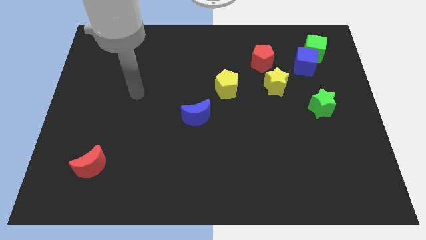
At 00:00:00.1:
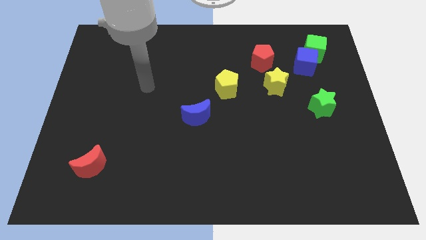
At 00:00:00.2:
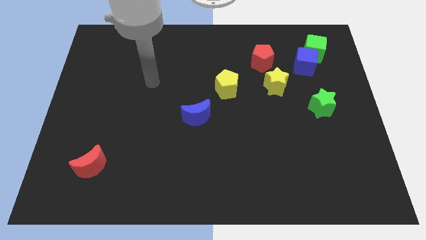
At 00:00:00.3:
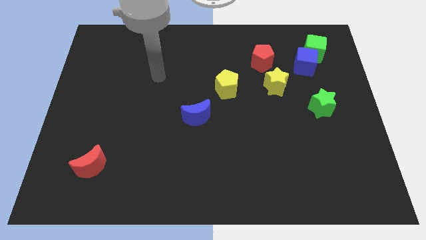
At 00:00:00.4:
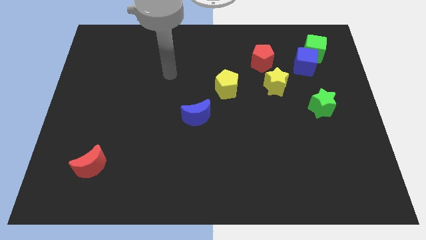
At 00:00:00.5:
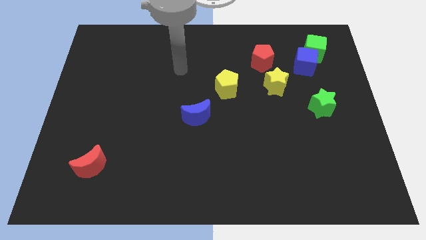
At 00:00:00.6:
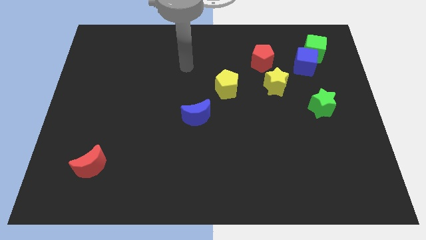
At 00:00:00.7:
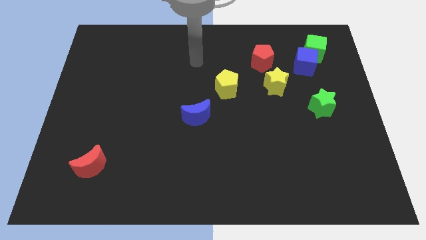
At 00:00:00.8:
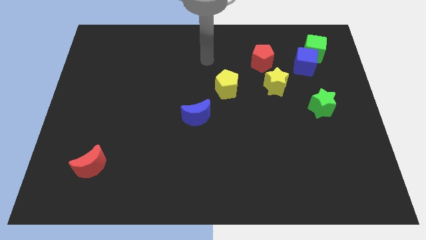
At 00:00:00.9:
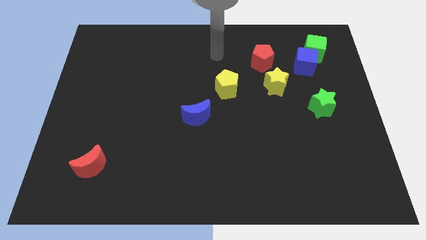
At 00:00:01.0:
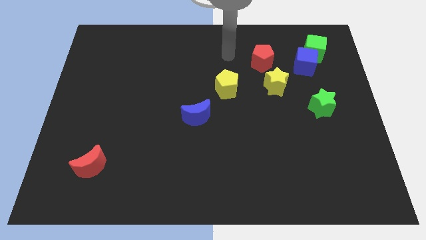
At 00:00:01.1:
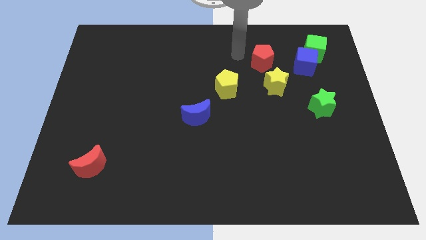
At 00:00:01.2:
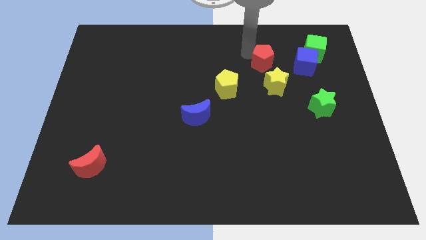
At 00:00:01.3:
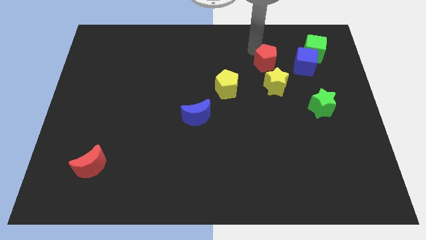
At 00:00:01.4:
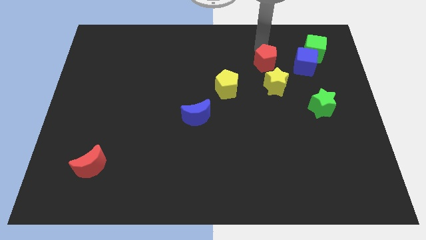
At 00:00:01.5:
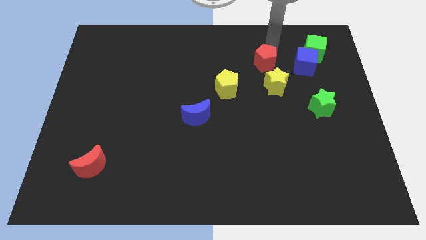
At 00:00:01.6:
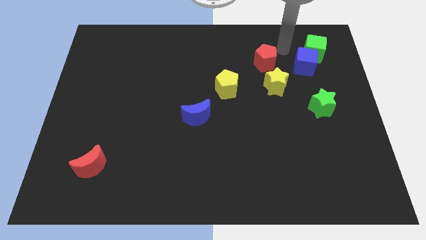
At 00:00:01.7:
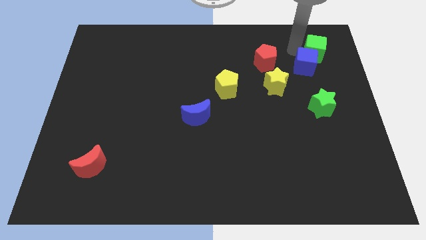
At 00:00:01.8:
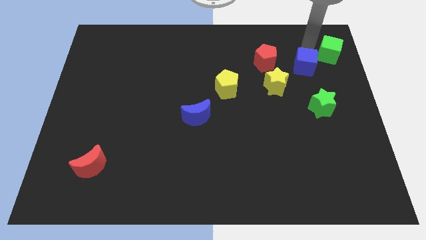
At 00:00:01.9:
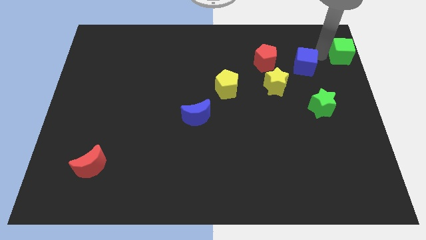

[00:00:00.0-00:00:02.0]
pull the blue cube apart from the green cube

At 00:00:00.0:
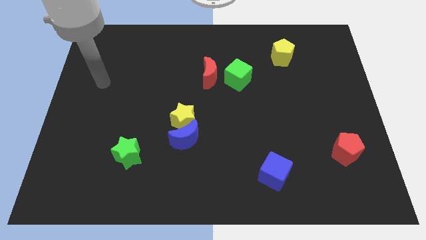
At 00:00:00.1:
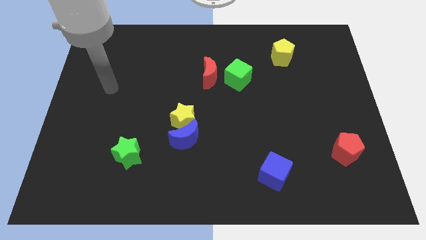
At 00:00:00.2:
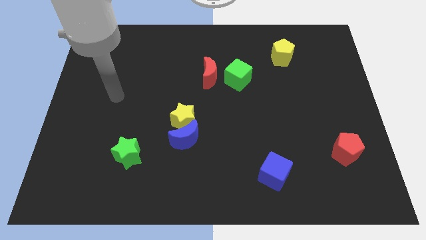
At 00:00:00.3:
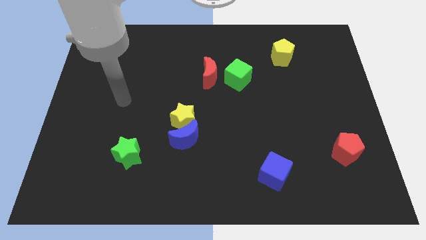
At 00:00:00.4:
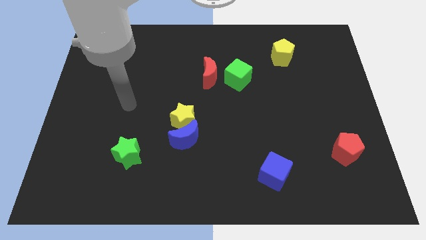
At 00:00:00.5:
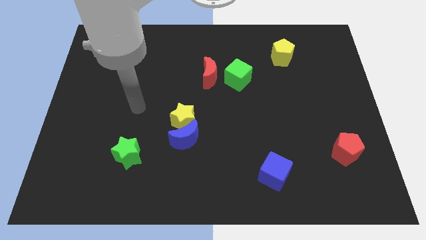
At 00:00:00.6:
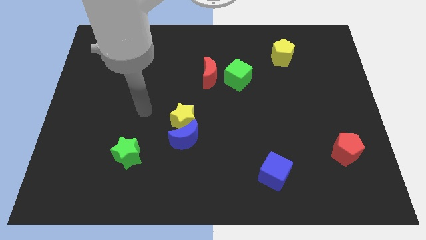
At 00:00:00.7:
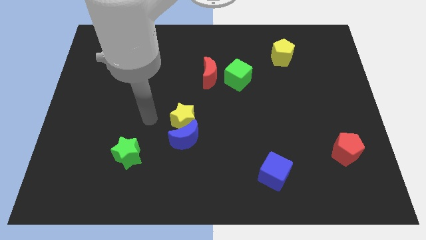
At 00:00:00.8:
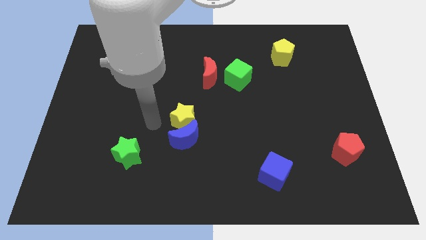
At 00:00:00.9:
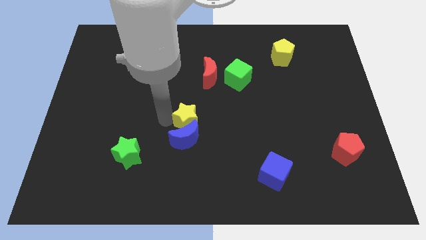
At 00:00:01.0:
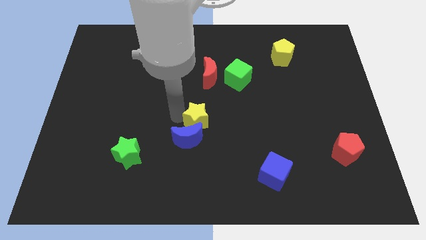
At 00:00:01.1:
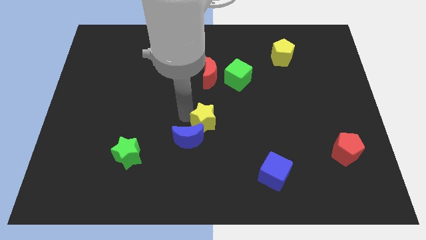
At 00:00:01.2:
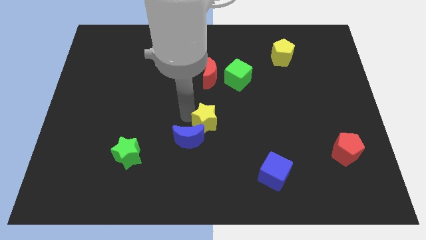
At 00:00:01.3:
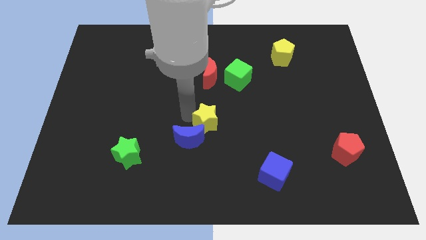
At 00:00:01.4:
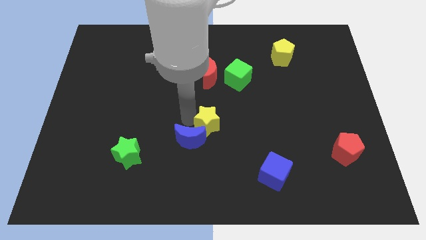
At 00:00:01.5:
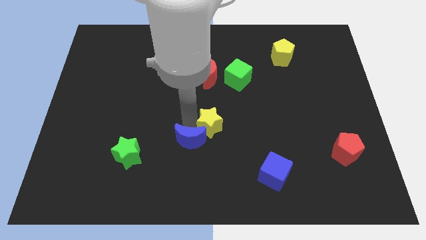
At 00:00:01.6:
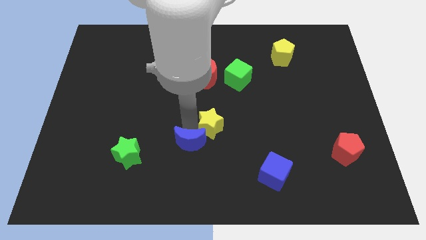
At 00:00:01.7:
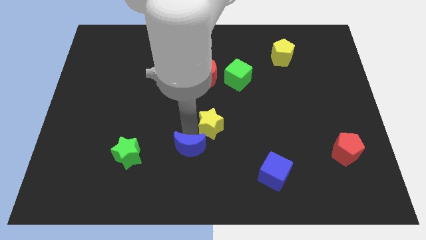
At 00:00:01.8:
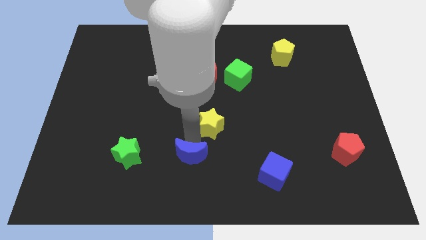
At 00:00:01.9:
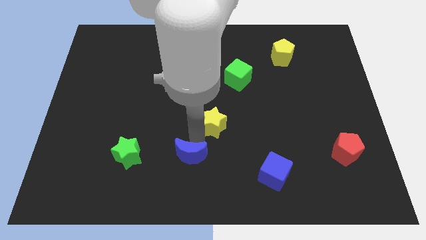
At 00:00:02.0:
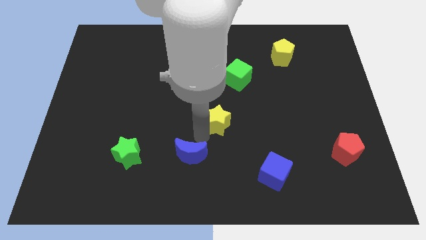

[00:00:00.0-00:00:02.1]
pull the blue moon apart from the yellow star

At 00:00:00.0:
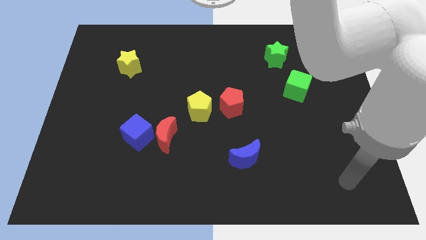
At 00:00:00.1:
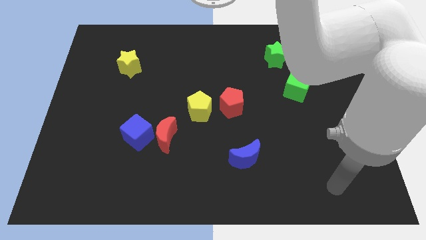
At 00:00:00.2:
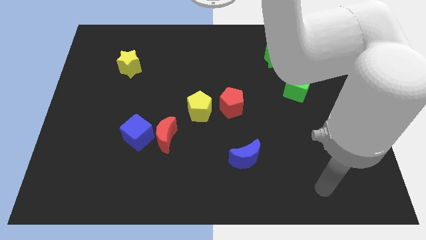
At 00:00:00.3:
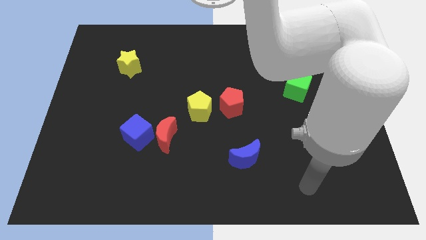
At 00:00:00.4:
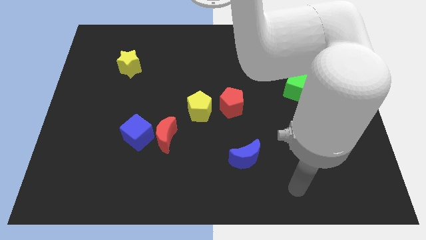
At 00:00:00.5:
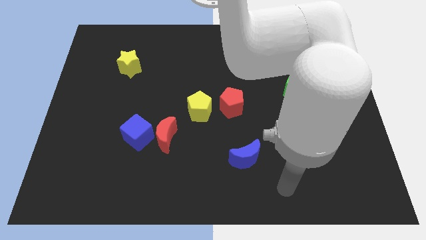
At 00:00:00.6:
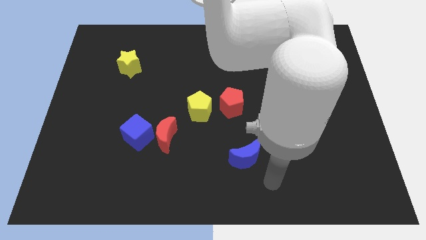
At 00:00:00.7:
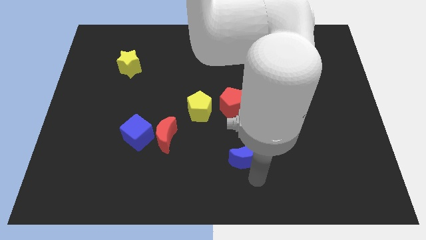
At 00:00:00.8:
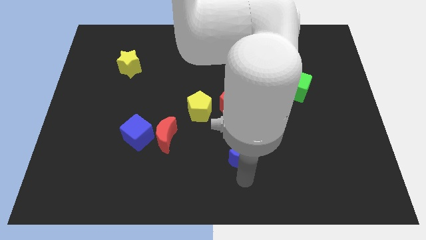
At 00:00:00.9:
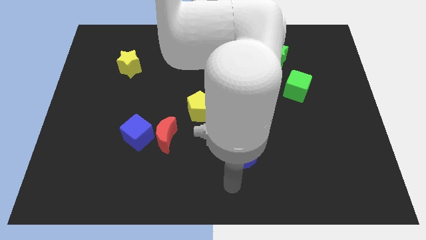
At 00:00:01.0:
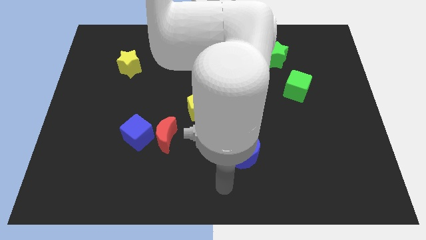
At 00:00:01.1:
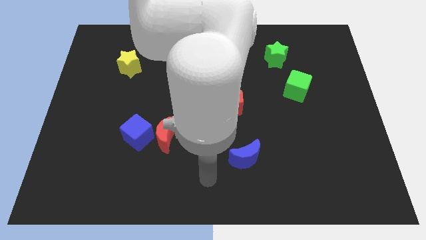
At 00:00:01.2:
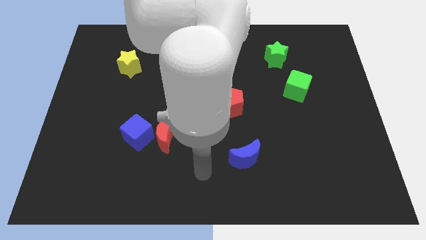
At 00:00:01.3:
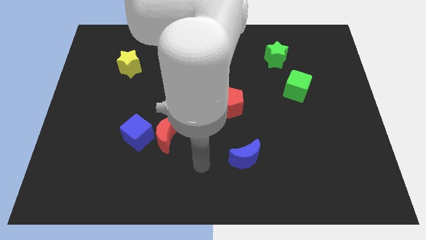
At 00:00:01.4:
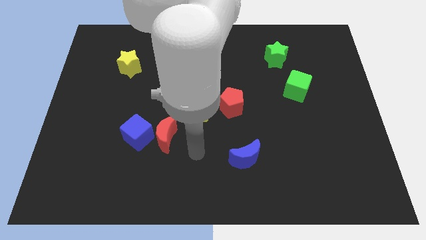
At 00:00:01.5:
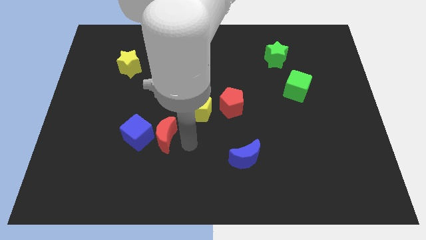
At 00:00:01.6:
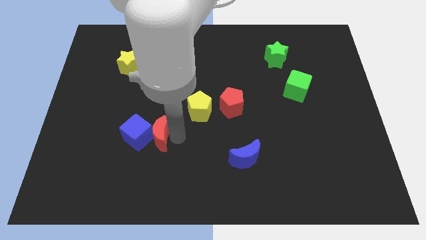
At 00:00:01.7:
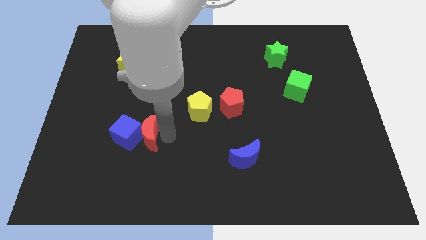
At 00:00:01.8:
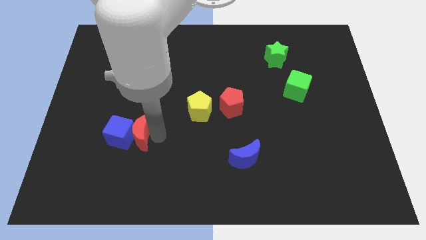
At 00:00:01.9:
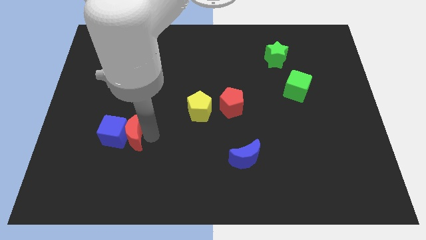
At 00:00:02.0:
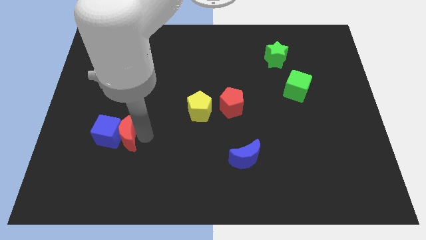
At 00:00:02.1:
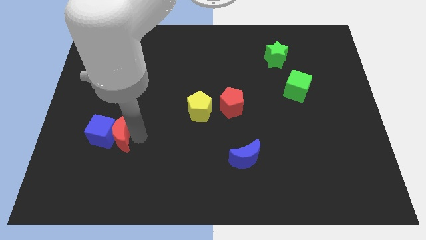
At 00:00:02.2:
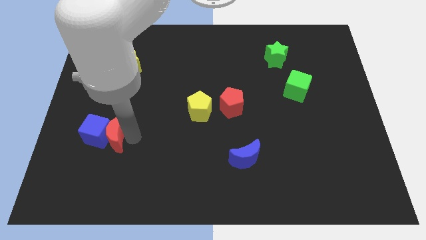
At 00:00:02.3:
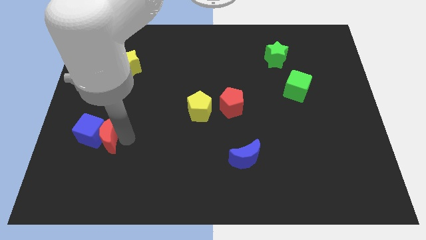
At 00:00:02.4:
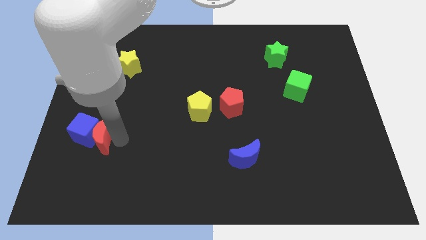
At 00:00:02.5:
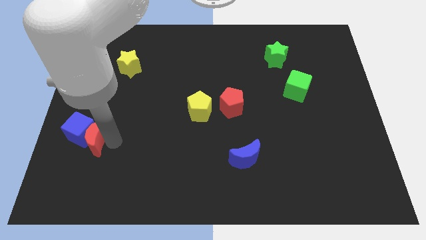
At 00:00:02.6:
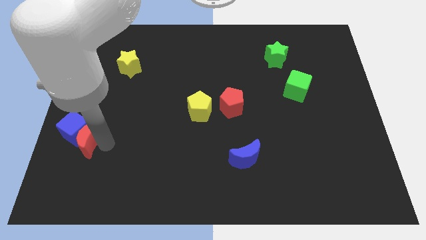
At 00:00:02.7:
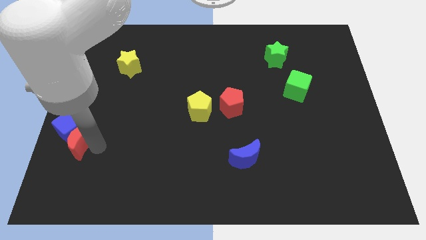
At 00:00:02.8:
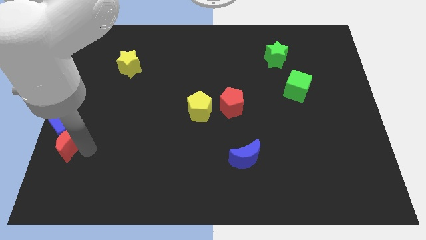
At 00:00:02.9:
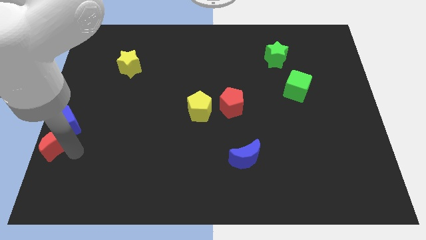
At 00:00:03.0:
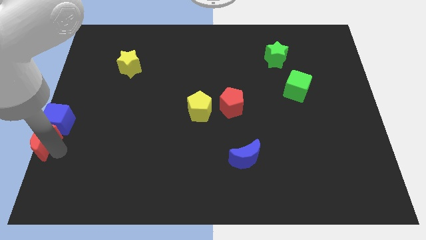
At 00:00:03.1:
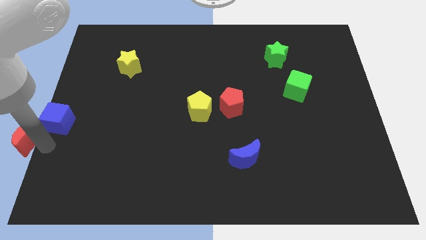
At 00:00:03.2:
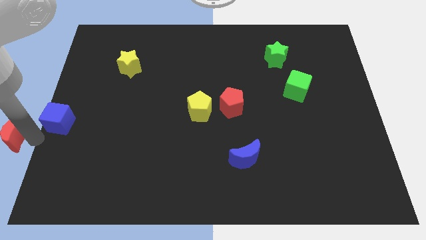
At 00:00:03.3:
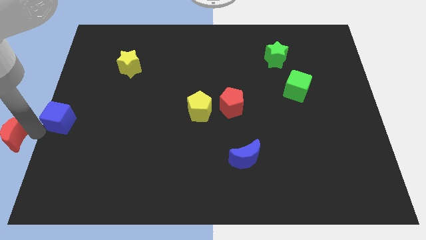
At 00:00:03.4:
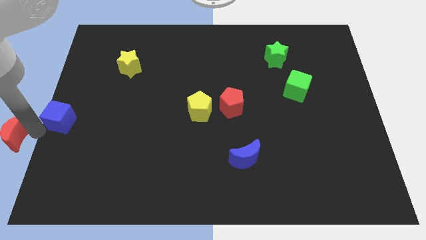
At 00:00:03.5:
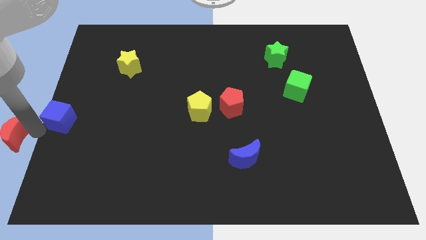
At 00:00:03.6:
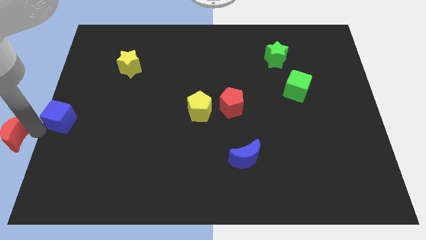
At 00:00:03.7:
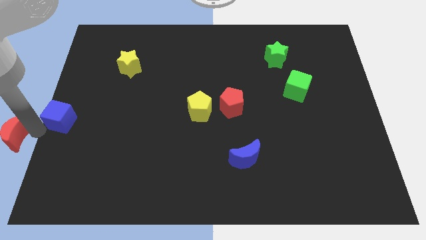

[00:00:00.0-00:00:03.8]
separate the blue cube from the red moon

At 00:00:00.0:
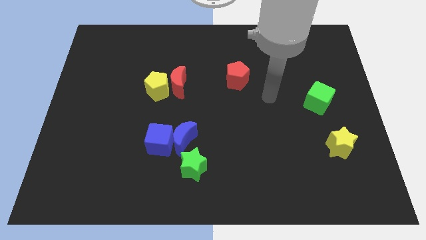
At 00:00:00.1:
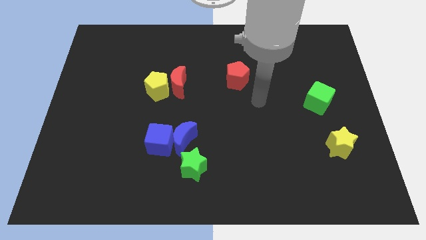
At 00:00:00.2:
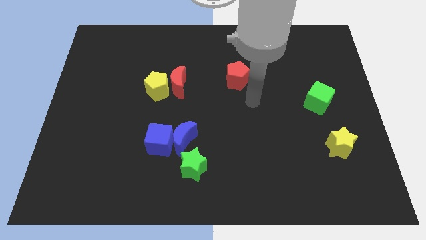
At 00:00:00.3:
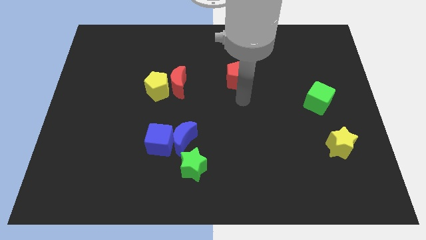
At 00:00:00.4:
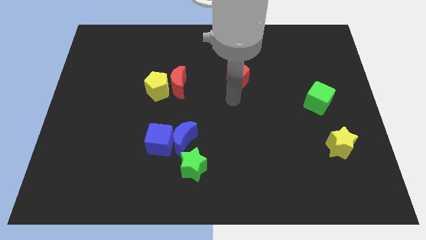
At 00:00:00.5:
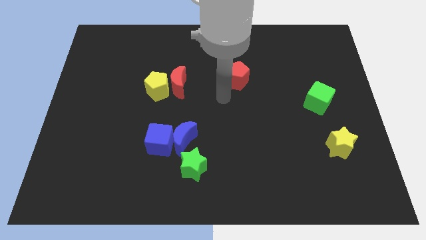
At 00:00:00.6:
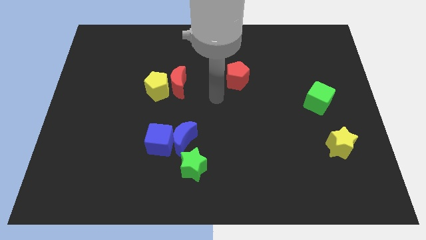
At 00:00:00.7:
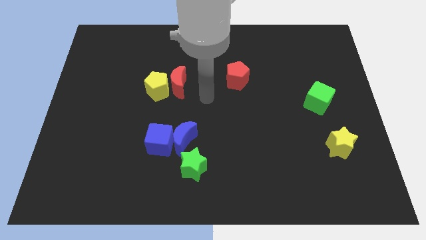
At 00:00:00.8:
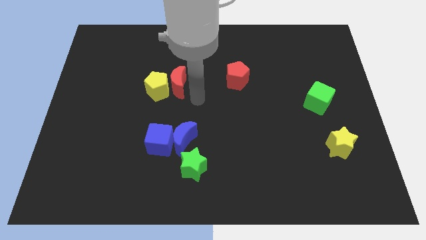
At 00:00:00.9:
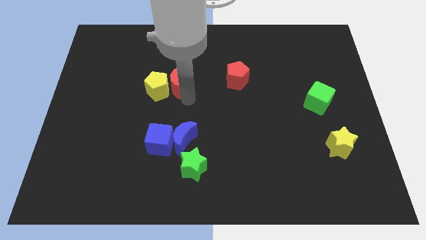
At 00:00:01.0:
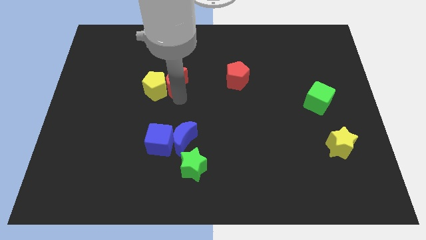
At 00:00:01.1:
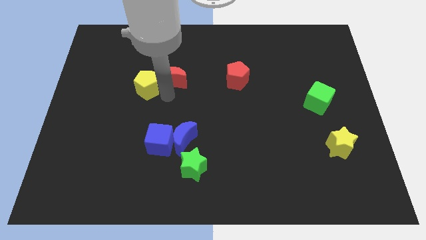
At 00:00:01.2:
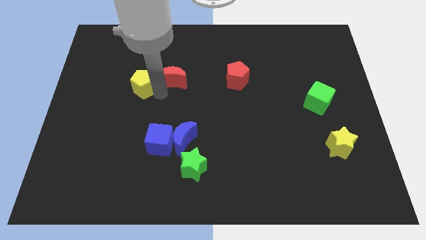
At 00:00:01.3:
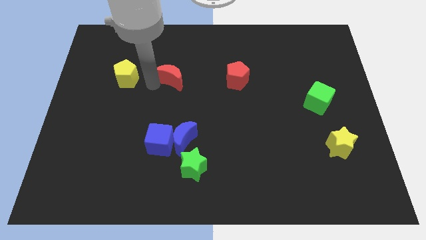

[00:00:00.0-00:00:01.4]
pull the red moon apart from the yellow pentagon
